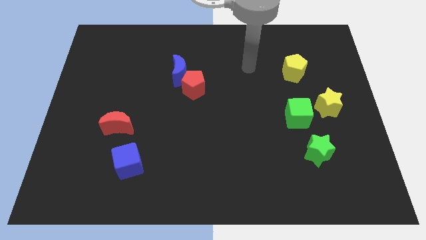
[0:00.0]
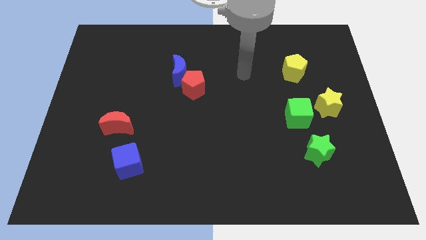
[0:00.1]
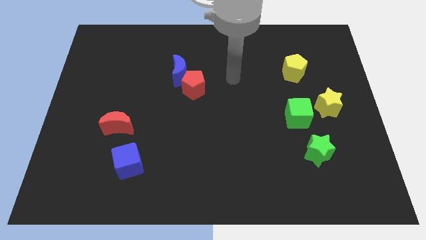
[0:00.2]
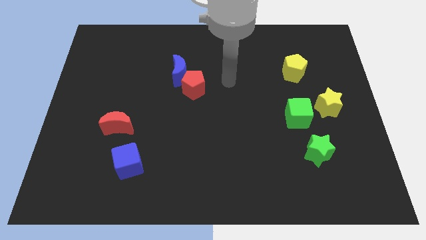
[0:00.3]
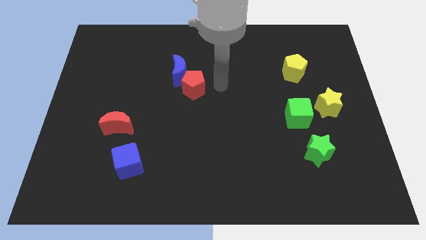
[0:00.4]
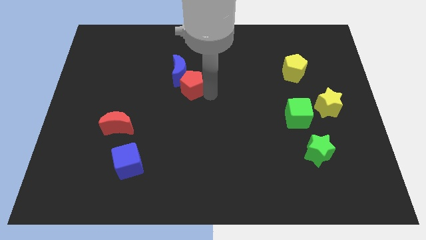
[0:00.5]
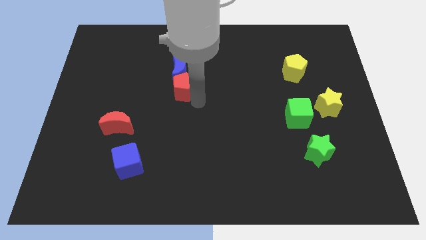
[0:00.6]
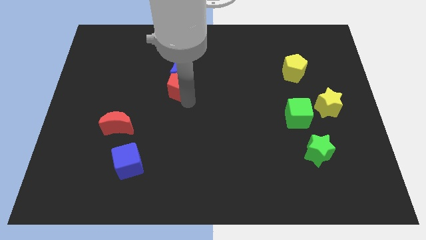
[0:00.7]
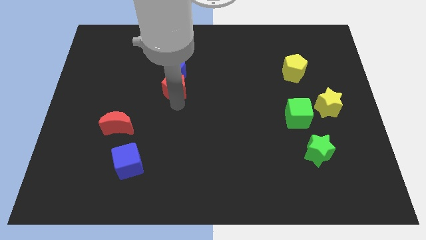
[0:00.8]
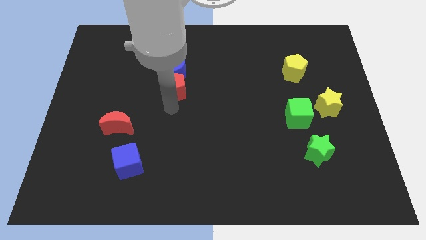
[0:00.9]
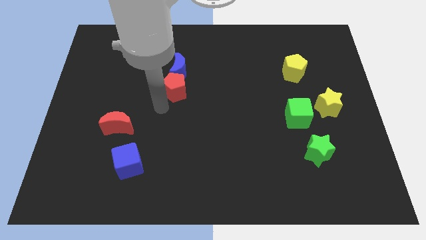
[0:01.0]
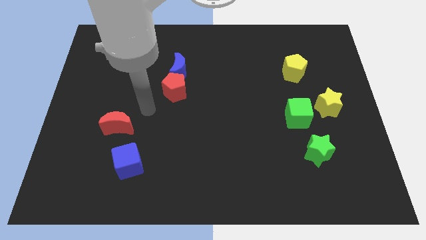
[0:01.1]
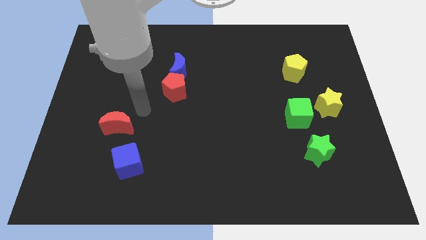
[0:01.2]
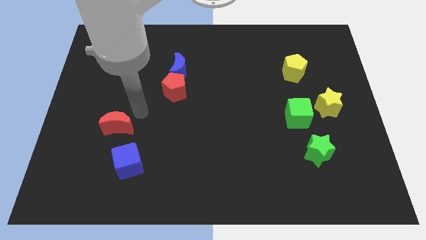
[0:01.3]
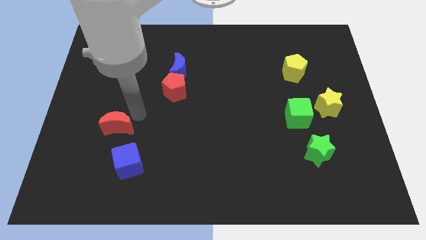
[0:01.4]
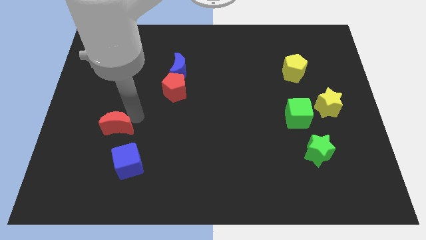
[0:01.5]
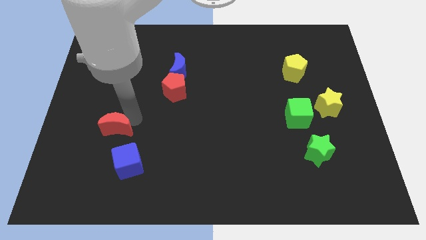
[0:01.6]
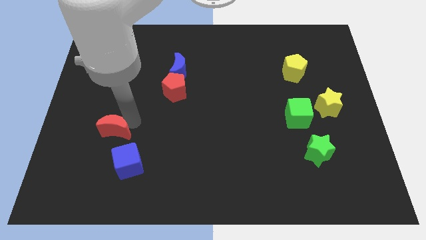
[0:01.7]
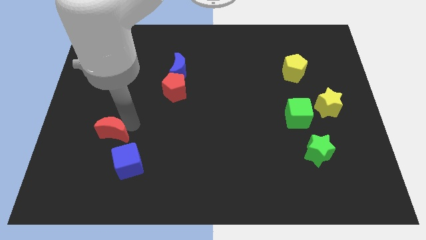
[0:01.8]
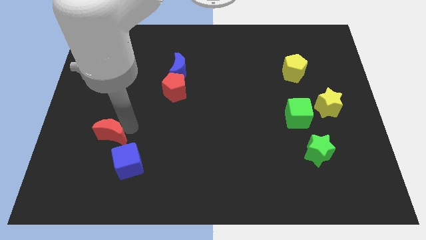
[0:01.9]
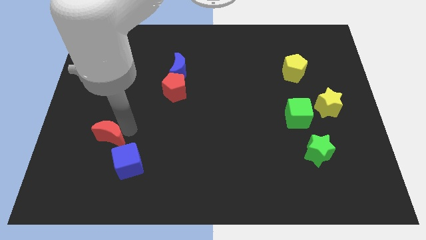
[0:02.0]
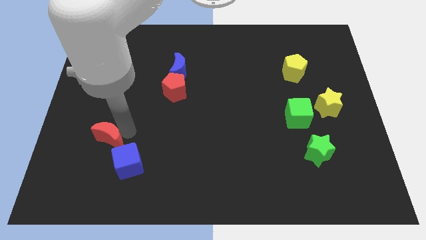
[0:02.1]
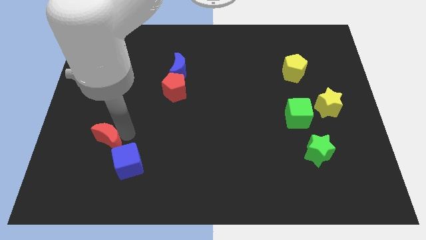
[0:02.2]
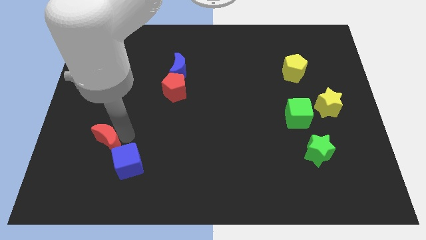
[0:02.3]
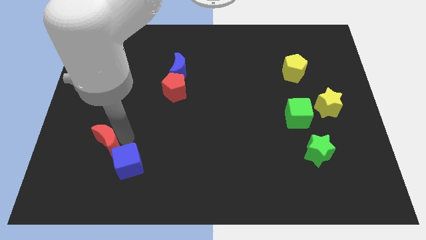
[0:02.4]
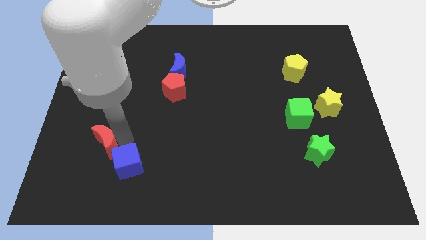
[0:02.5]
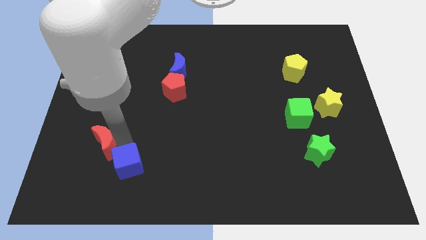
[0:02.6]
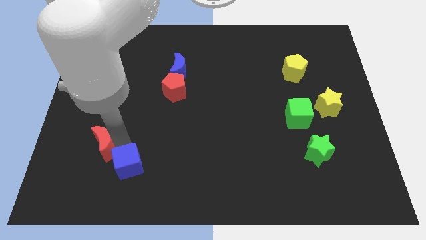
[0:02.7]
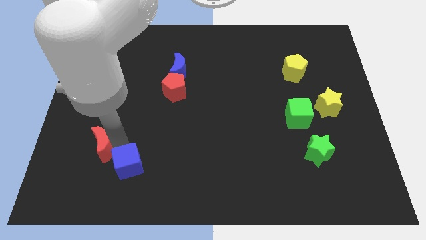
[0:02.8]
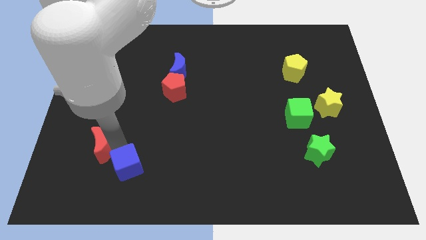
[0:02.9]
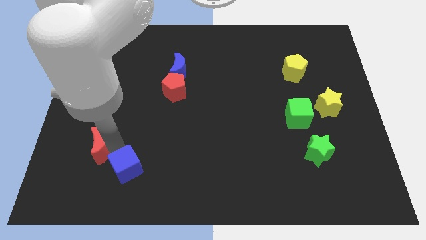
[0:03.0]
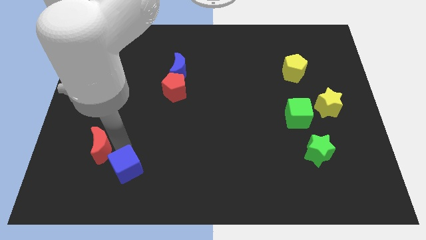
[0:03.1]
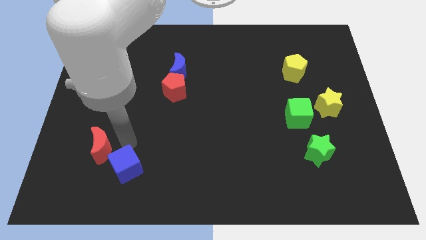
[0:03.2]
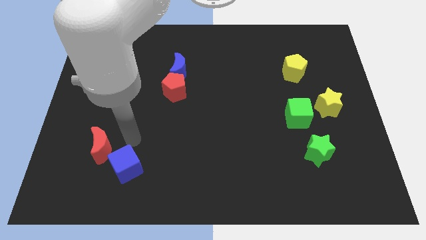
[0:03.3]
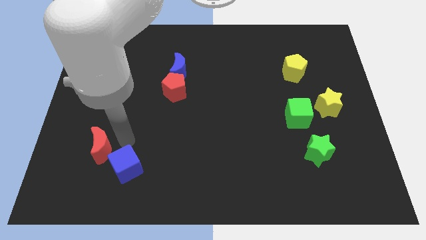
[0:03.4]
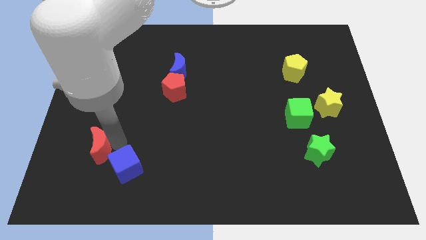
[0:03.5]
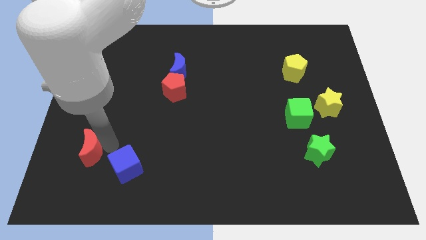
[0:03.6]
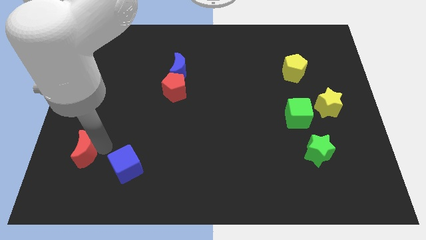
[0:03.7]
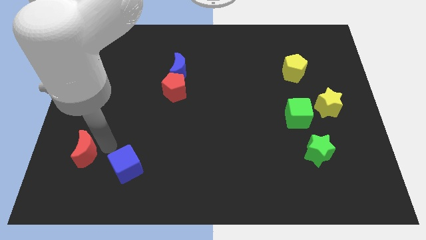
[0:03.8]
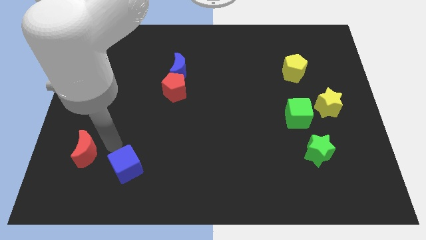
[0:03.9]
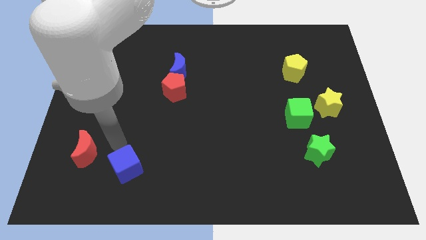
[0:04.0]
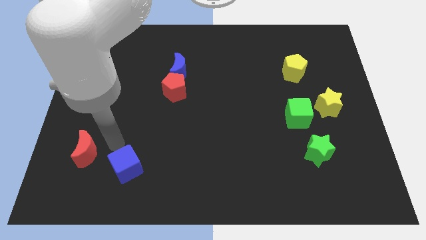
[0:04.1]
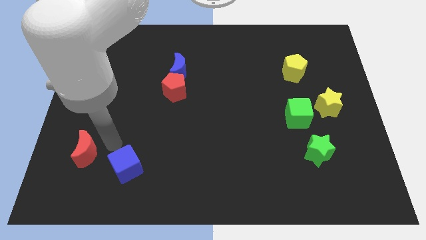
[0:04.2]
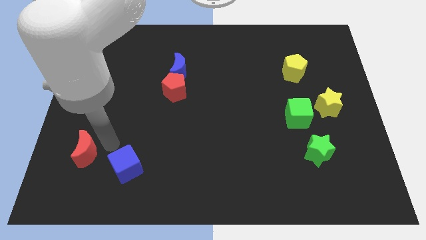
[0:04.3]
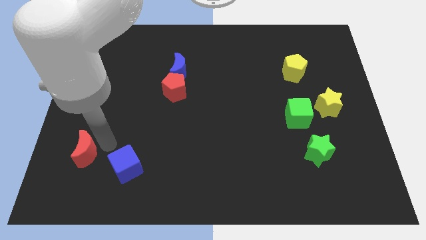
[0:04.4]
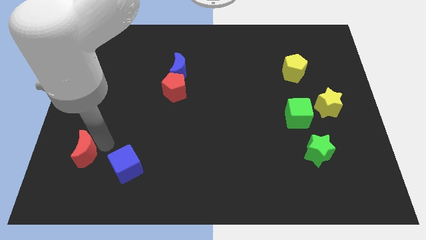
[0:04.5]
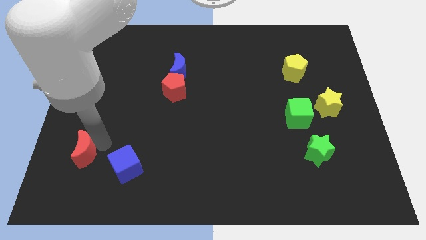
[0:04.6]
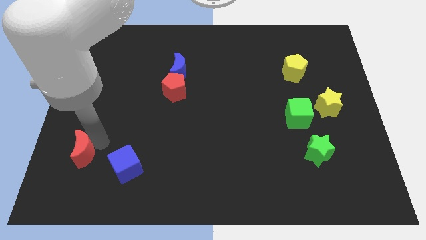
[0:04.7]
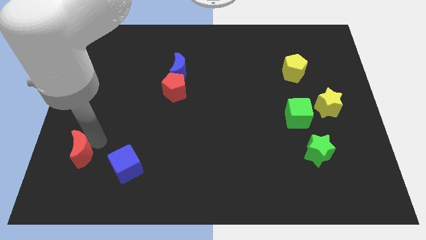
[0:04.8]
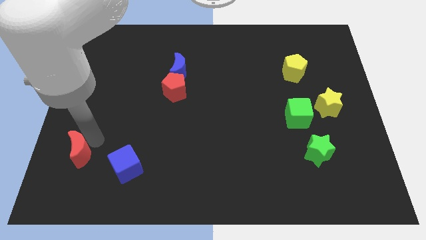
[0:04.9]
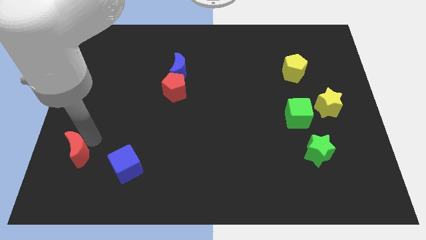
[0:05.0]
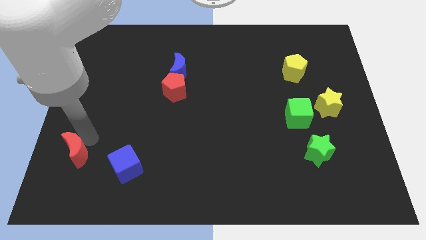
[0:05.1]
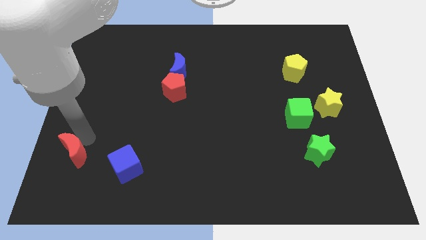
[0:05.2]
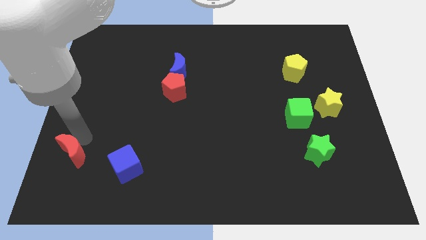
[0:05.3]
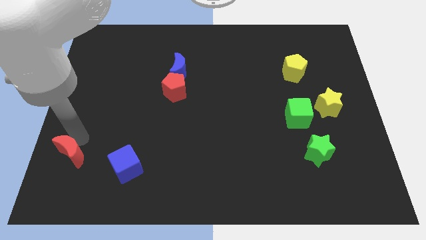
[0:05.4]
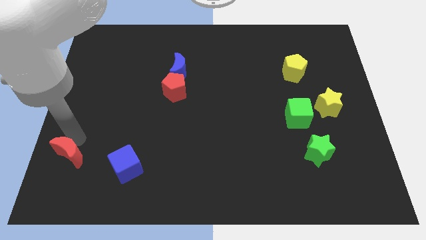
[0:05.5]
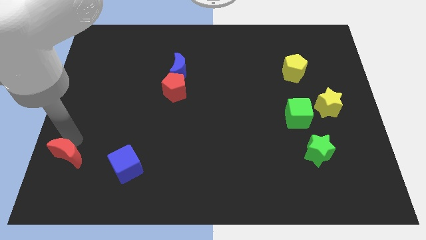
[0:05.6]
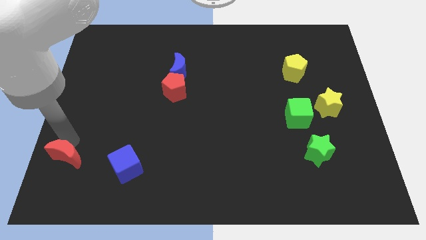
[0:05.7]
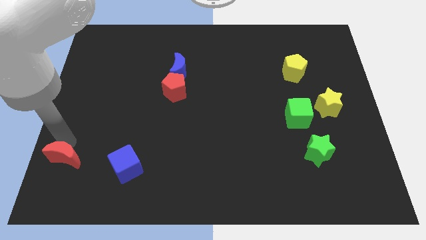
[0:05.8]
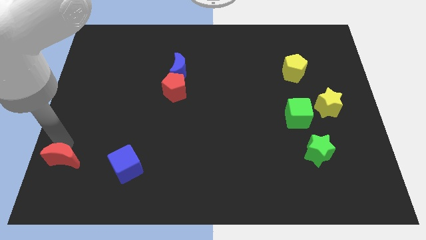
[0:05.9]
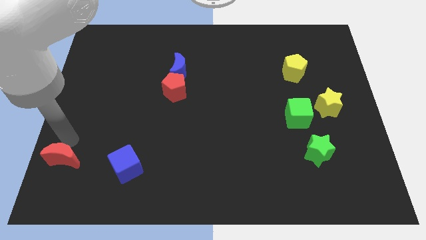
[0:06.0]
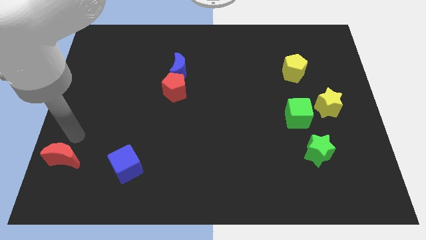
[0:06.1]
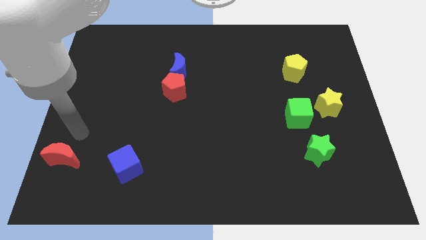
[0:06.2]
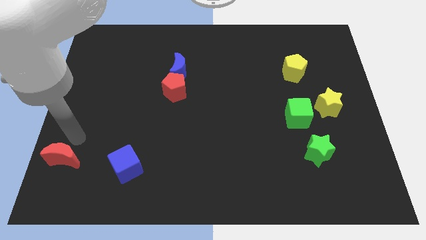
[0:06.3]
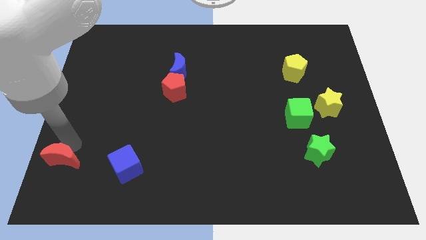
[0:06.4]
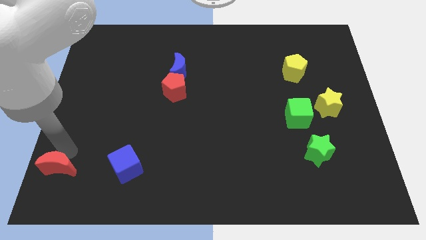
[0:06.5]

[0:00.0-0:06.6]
slide the red moon to the bottom left corner

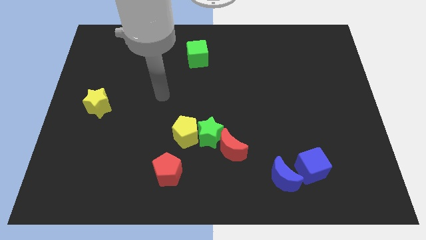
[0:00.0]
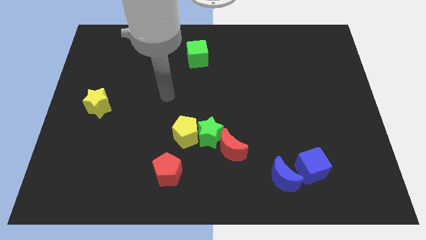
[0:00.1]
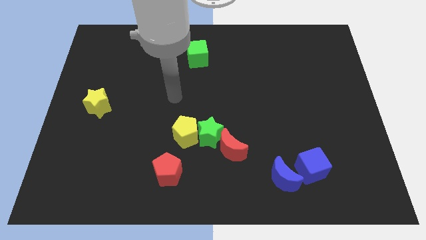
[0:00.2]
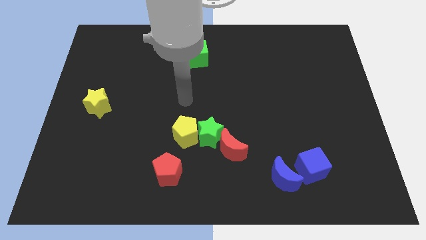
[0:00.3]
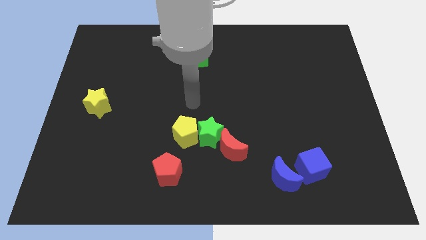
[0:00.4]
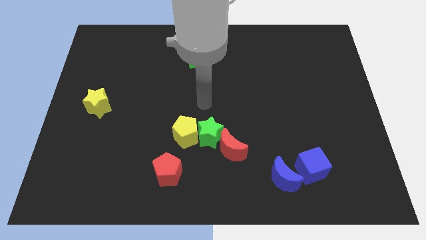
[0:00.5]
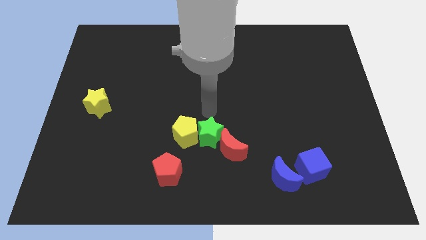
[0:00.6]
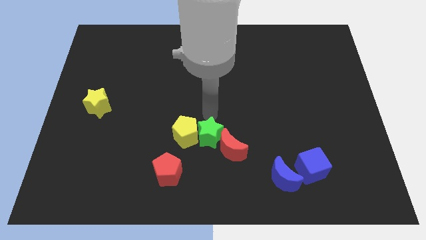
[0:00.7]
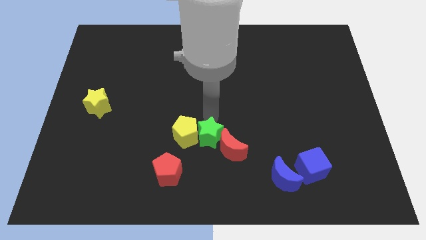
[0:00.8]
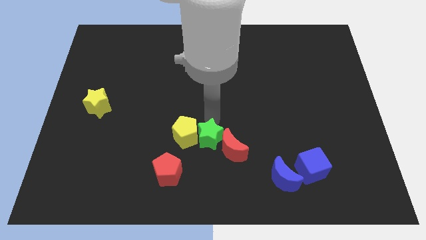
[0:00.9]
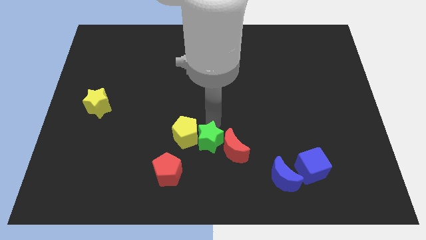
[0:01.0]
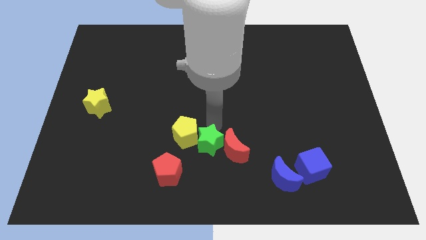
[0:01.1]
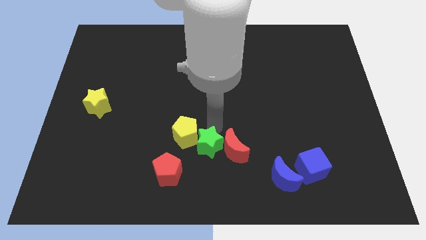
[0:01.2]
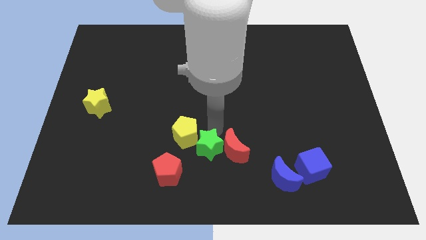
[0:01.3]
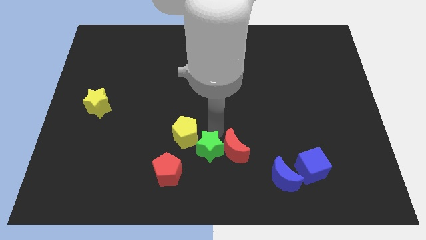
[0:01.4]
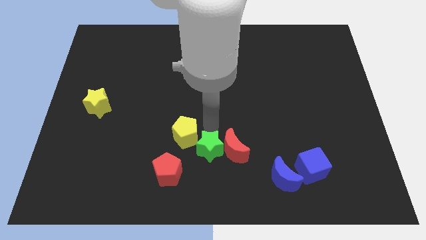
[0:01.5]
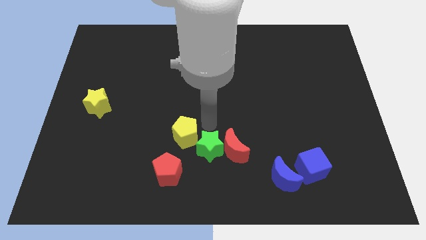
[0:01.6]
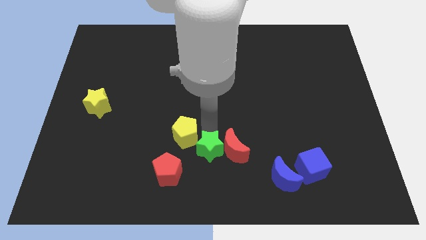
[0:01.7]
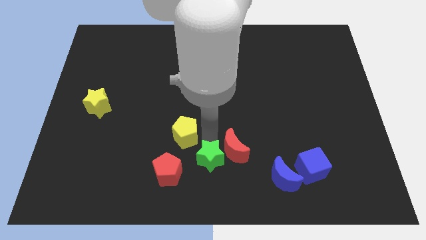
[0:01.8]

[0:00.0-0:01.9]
put the green star to the bottom
